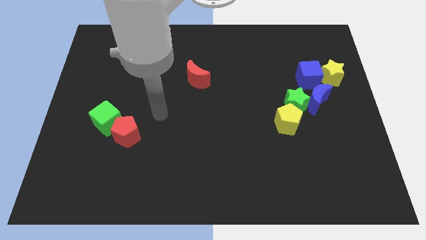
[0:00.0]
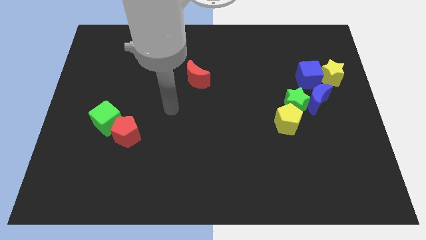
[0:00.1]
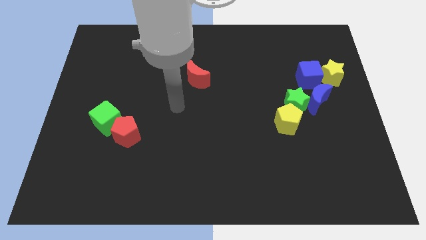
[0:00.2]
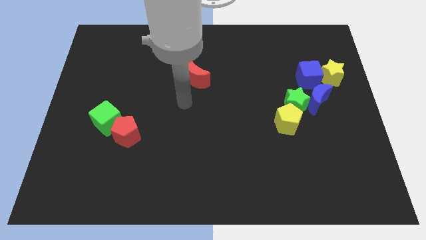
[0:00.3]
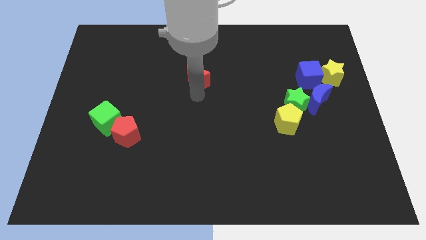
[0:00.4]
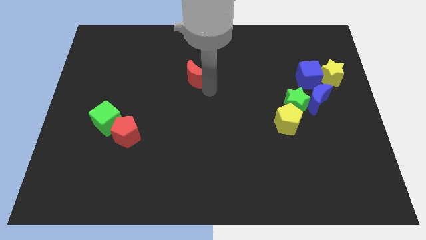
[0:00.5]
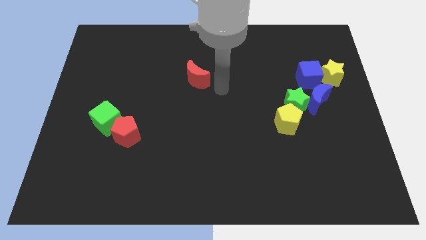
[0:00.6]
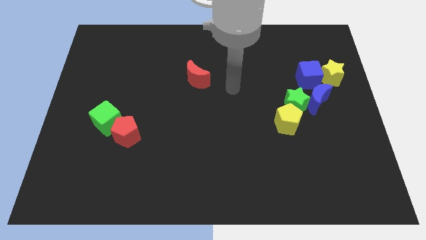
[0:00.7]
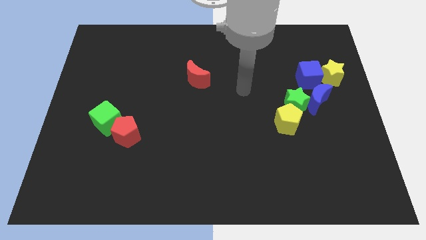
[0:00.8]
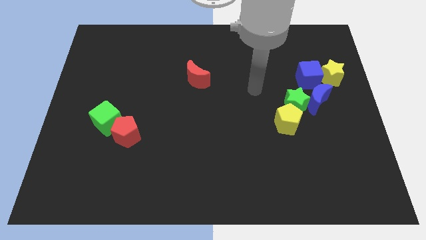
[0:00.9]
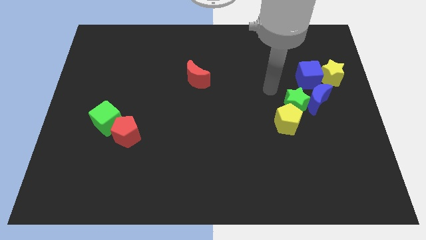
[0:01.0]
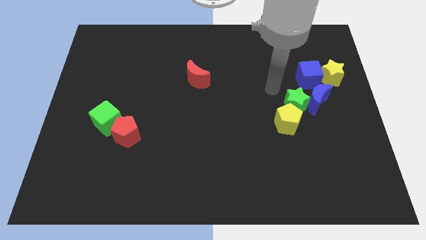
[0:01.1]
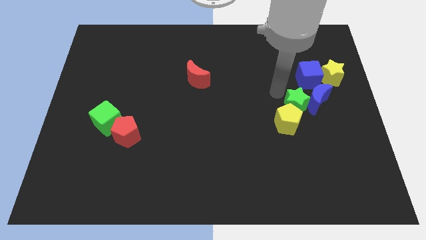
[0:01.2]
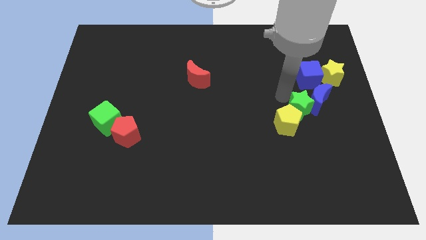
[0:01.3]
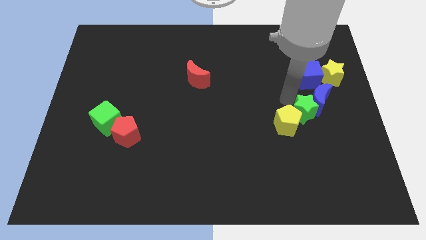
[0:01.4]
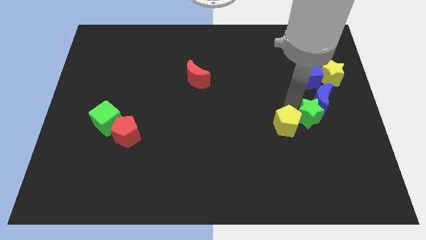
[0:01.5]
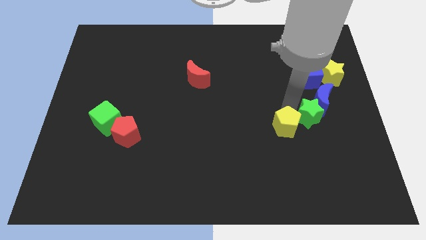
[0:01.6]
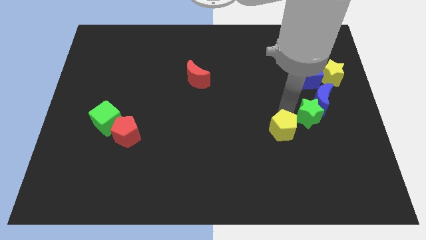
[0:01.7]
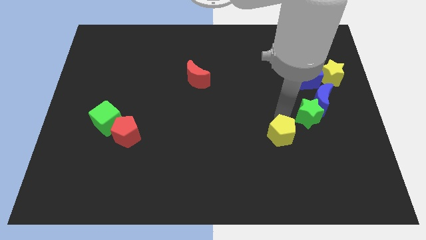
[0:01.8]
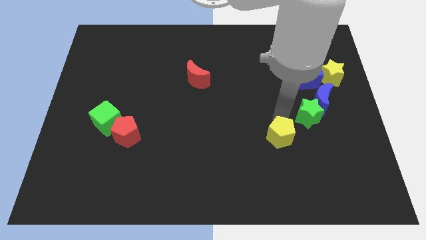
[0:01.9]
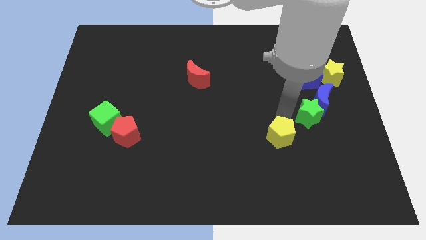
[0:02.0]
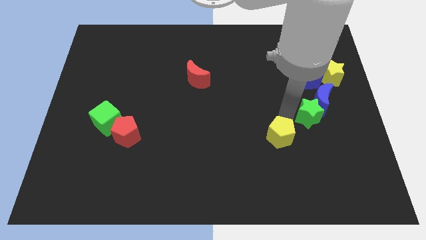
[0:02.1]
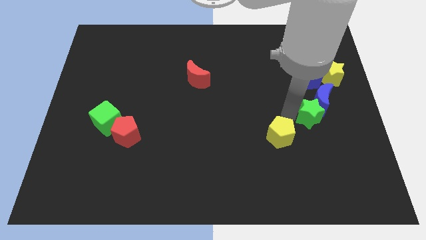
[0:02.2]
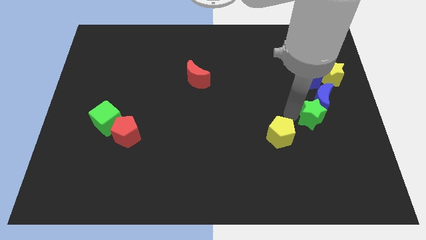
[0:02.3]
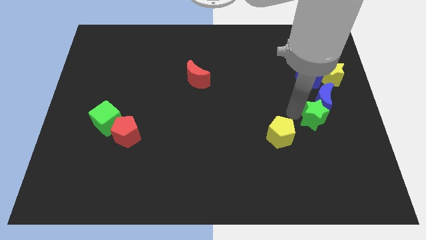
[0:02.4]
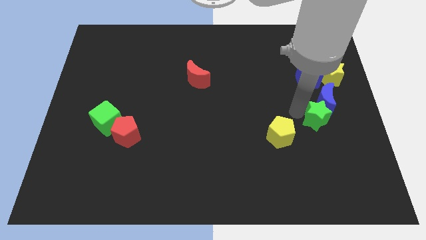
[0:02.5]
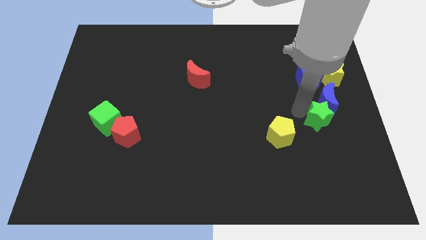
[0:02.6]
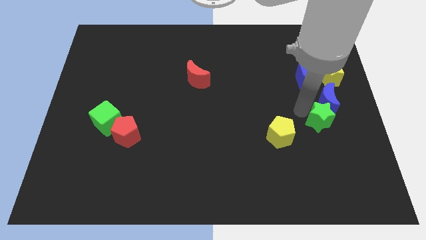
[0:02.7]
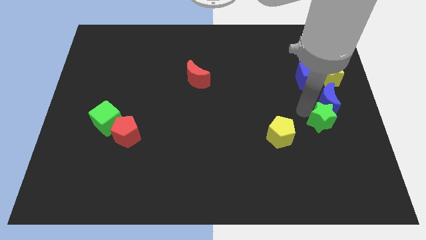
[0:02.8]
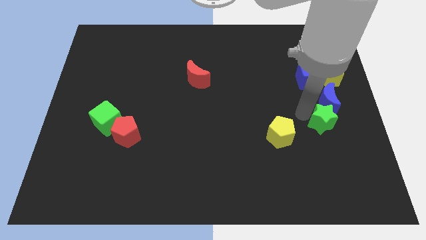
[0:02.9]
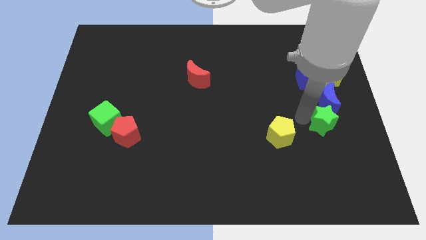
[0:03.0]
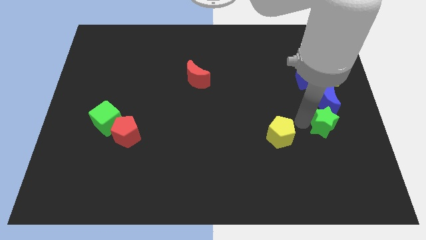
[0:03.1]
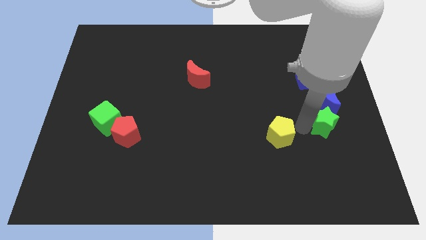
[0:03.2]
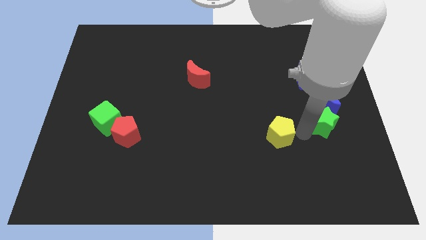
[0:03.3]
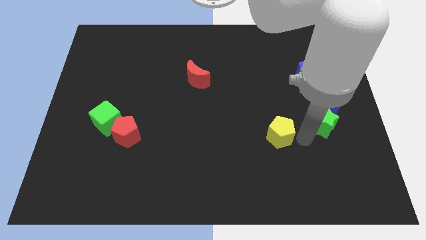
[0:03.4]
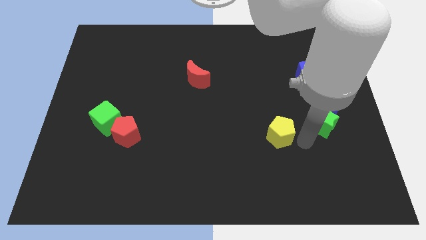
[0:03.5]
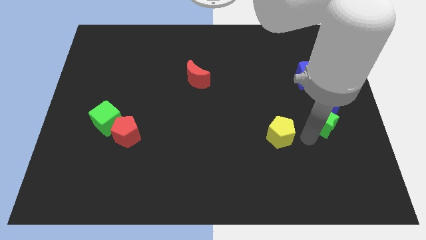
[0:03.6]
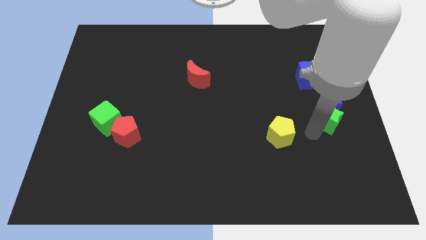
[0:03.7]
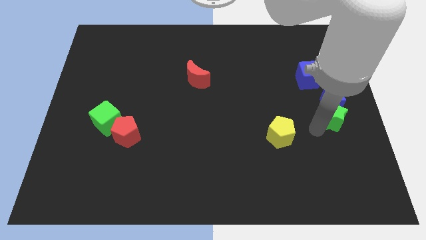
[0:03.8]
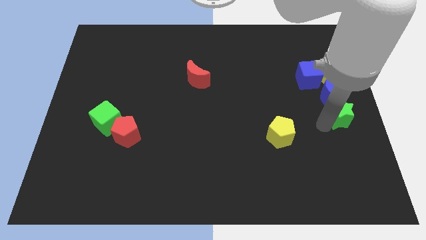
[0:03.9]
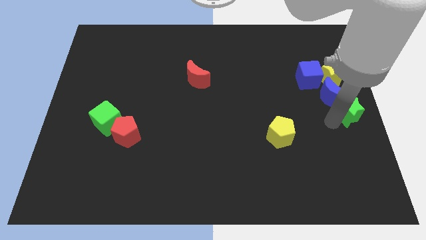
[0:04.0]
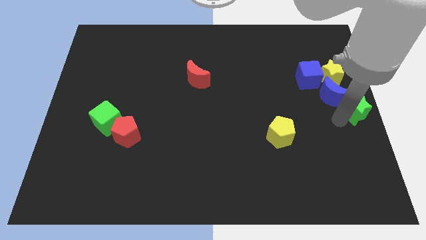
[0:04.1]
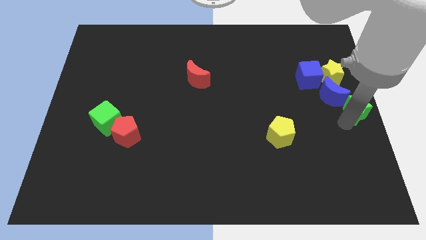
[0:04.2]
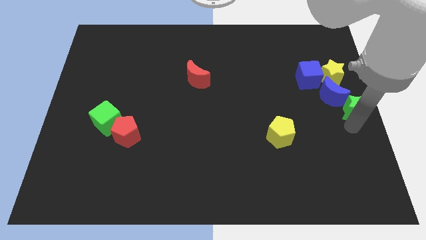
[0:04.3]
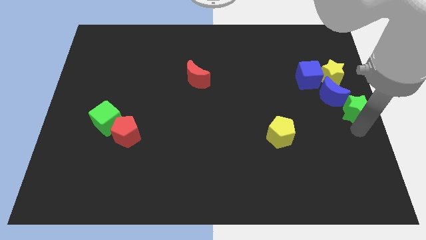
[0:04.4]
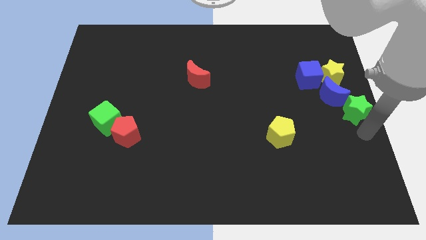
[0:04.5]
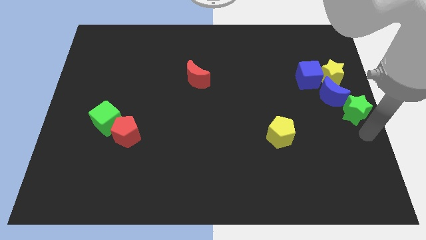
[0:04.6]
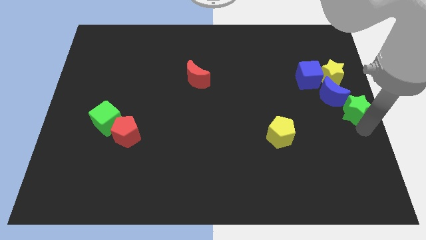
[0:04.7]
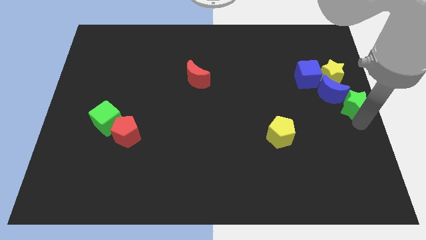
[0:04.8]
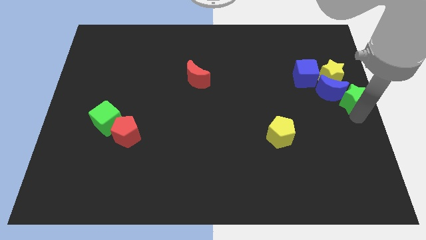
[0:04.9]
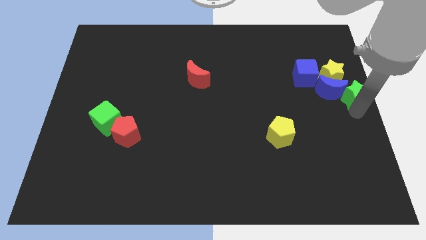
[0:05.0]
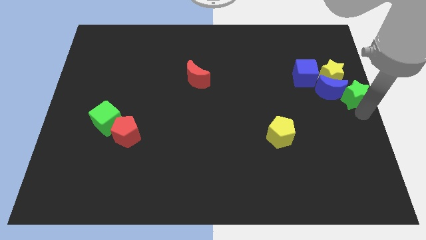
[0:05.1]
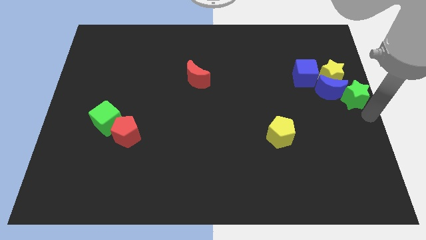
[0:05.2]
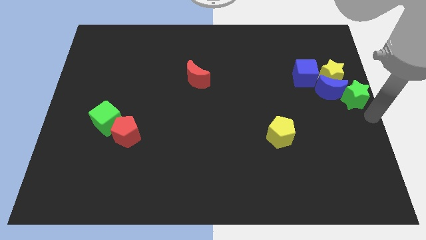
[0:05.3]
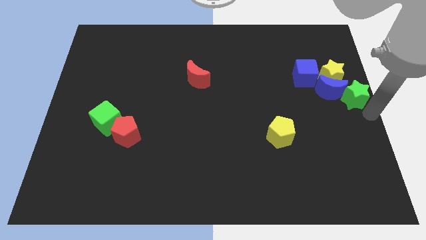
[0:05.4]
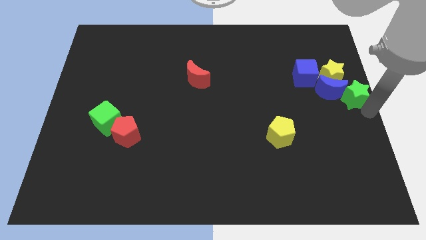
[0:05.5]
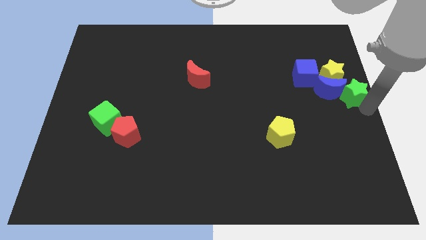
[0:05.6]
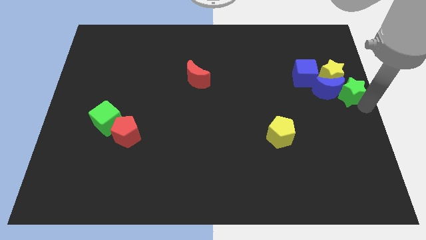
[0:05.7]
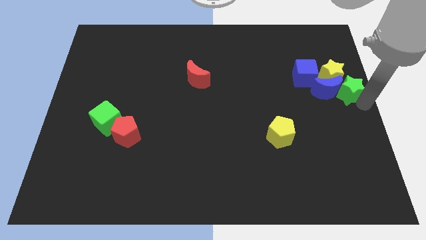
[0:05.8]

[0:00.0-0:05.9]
push the green star to the yellow star
